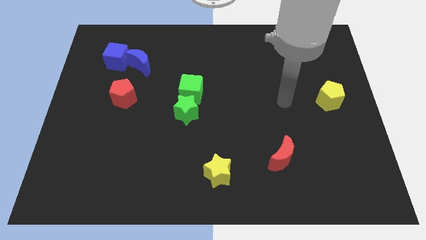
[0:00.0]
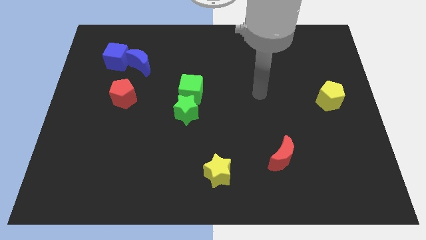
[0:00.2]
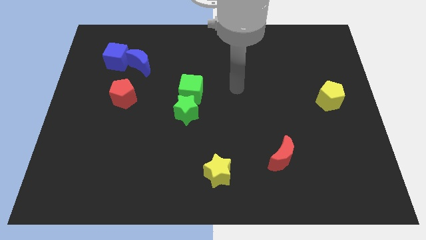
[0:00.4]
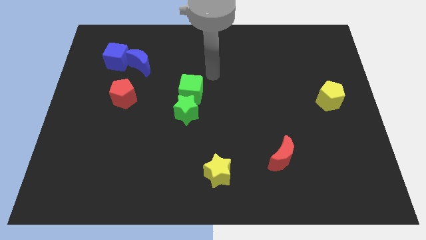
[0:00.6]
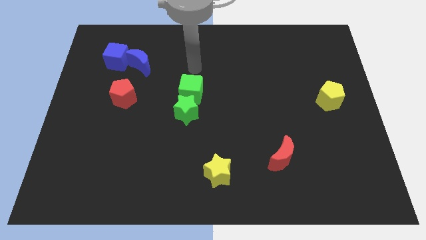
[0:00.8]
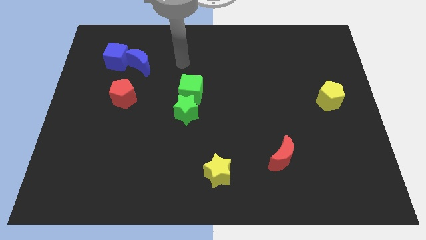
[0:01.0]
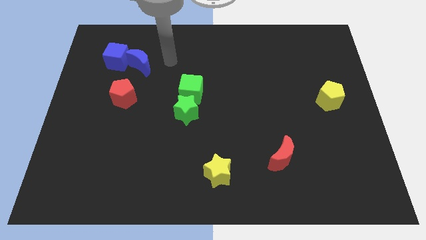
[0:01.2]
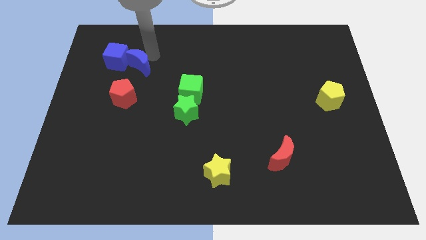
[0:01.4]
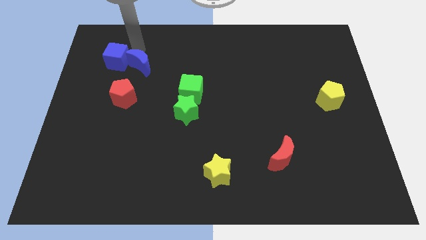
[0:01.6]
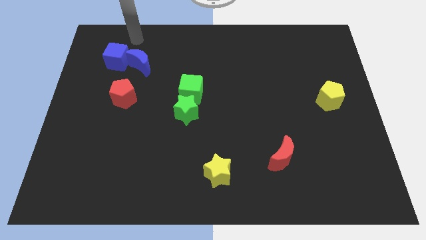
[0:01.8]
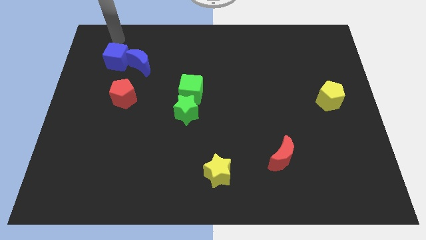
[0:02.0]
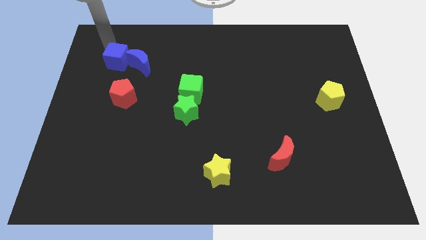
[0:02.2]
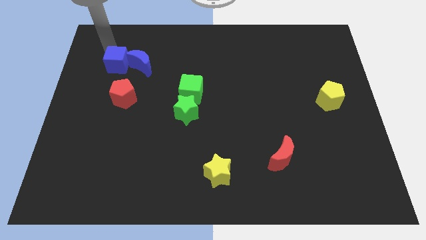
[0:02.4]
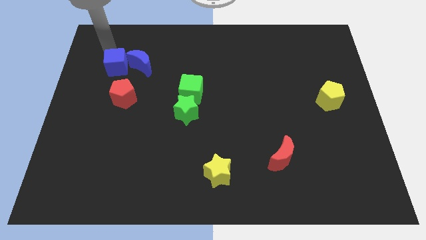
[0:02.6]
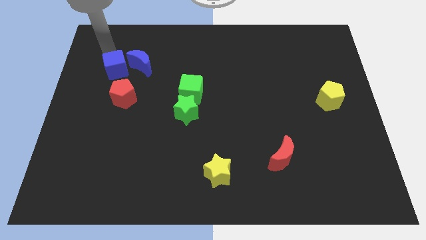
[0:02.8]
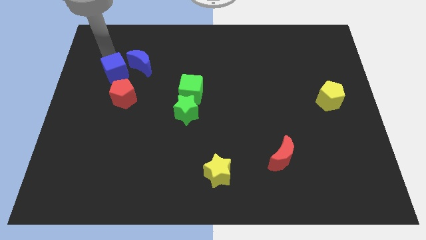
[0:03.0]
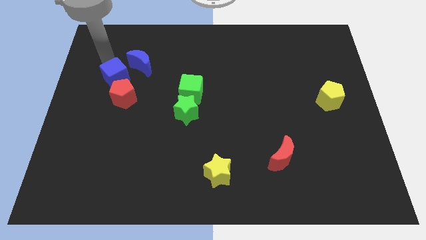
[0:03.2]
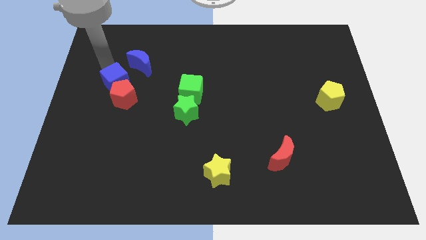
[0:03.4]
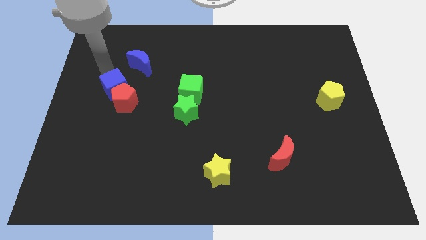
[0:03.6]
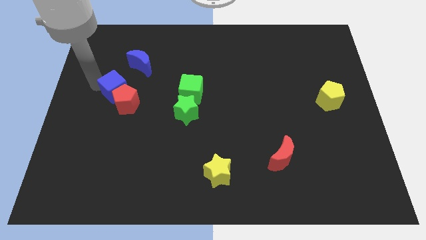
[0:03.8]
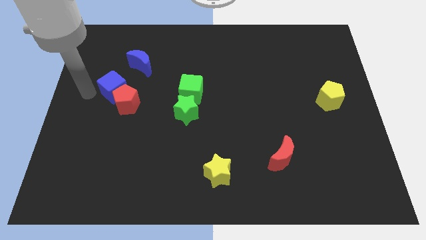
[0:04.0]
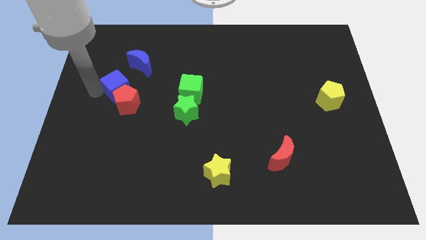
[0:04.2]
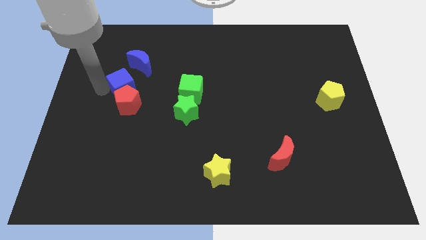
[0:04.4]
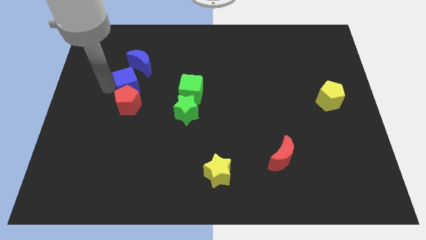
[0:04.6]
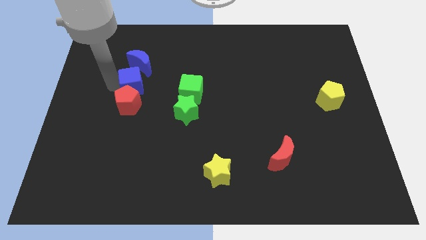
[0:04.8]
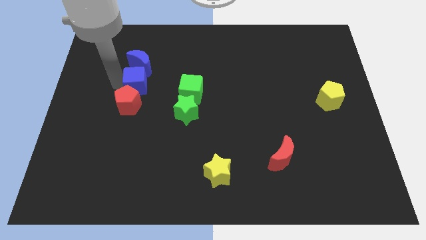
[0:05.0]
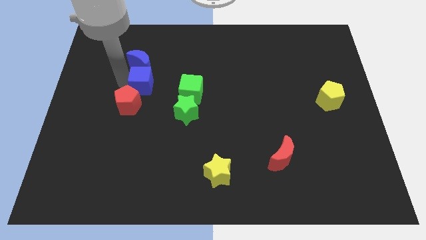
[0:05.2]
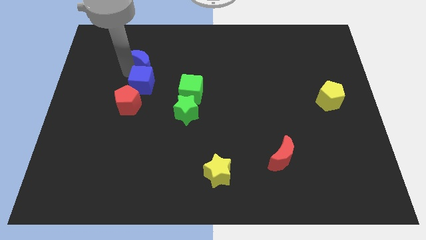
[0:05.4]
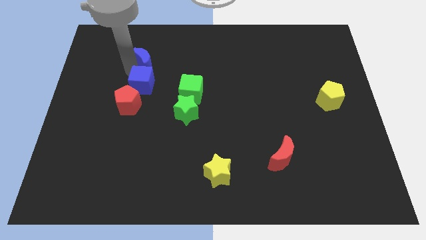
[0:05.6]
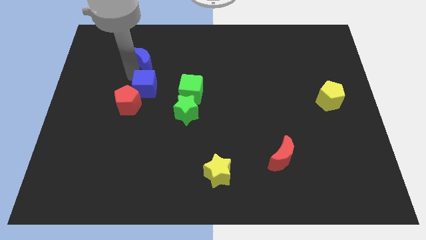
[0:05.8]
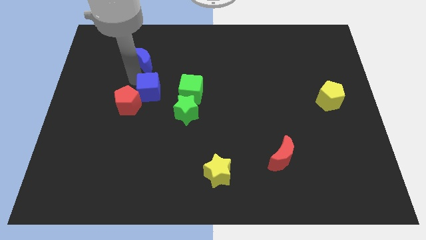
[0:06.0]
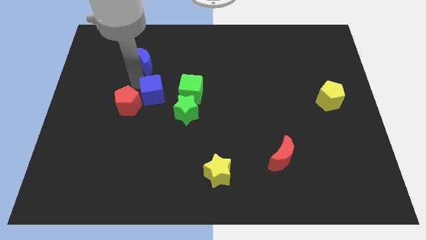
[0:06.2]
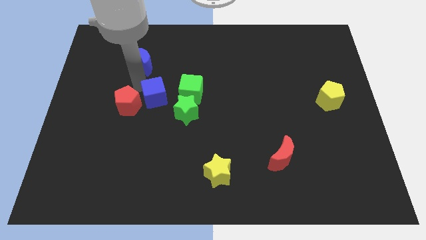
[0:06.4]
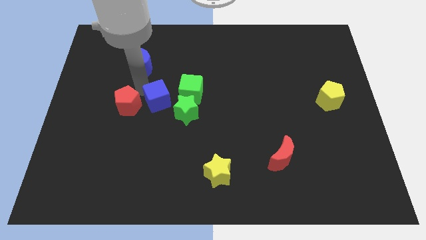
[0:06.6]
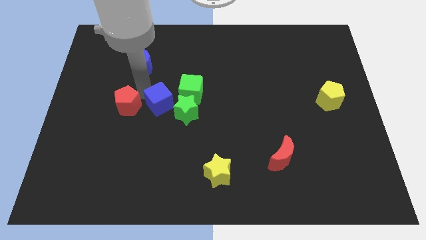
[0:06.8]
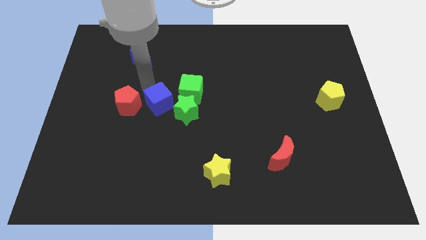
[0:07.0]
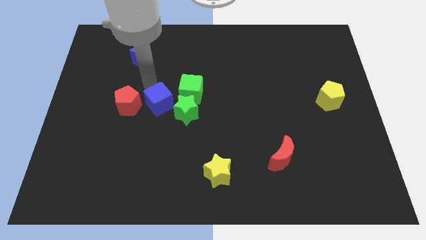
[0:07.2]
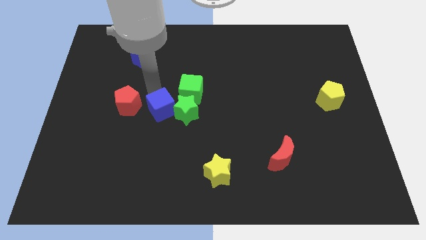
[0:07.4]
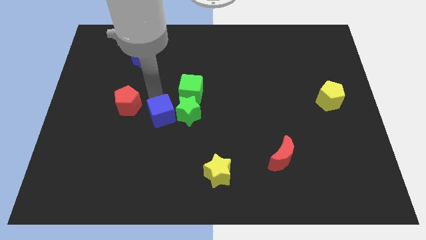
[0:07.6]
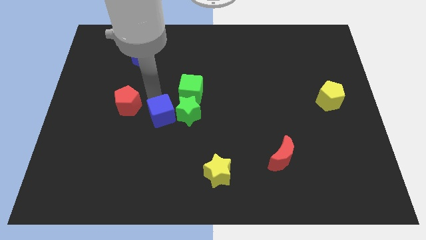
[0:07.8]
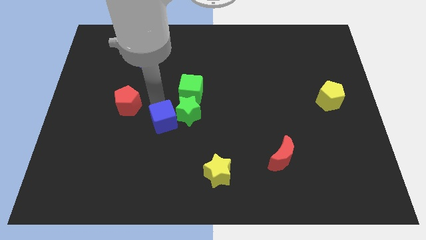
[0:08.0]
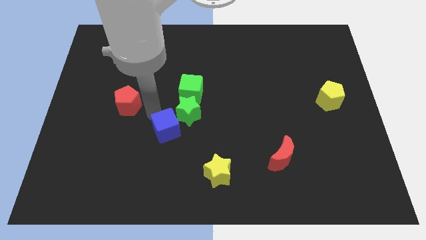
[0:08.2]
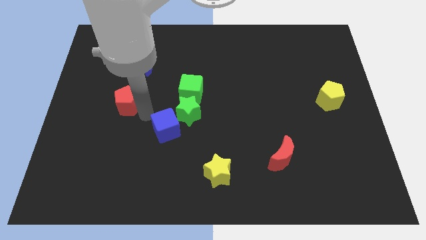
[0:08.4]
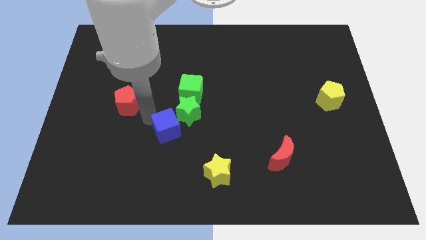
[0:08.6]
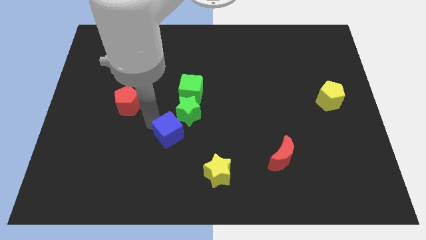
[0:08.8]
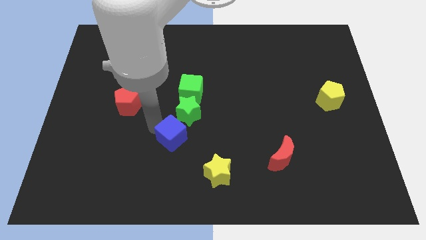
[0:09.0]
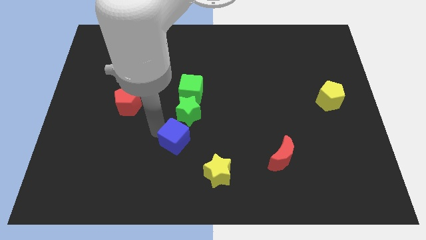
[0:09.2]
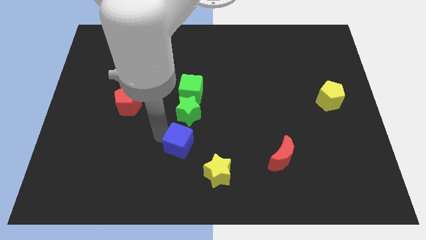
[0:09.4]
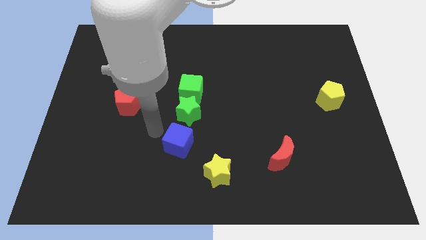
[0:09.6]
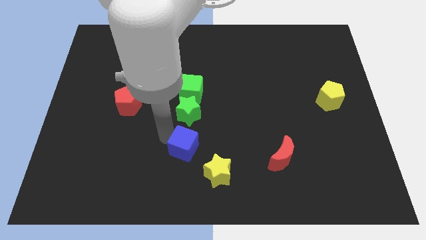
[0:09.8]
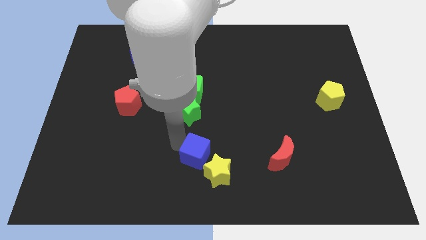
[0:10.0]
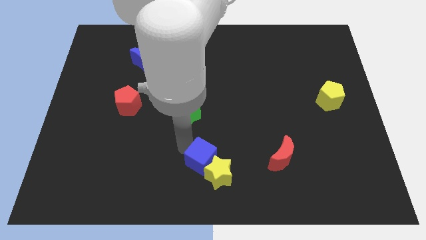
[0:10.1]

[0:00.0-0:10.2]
push the blue cube towards the yellow star

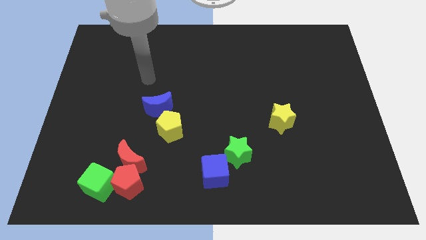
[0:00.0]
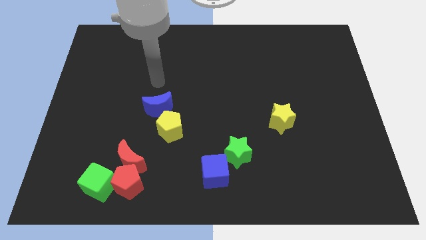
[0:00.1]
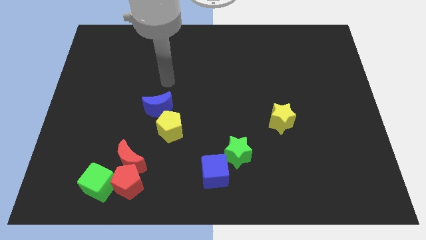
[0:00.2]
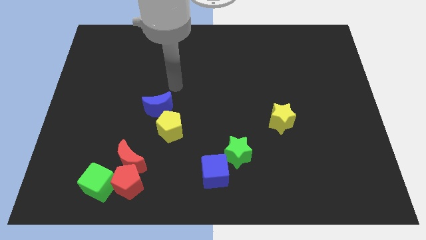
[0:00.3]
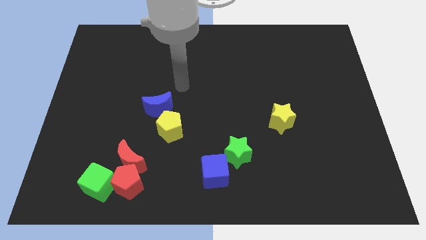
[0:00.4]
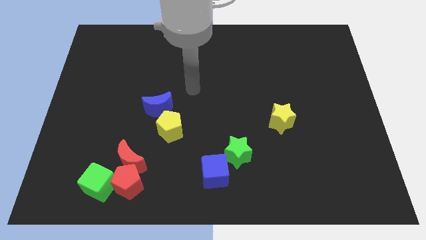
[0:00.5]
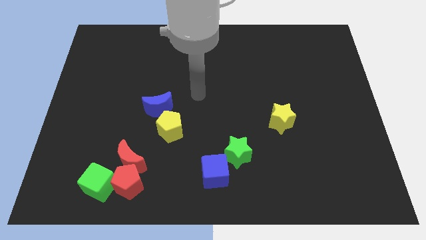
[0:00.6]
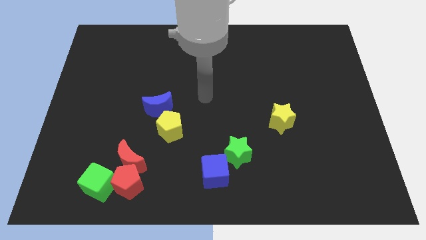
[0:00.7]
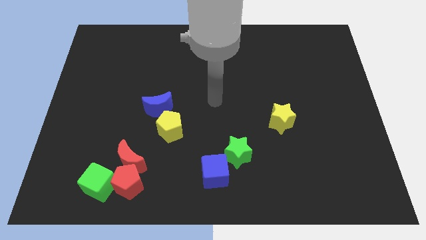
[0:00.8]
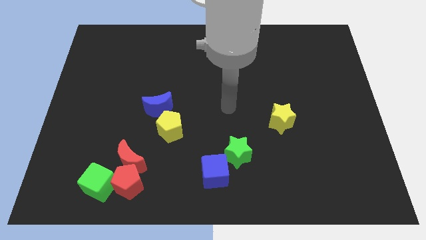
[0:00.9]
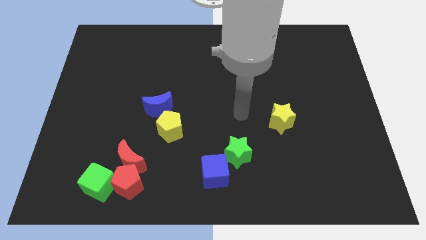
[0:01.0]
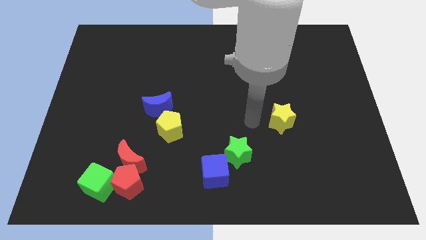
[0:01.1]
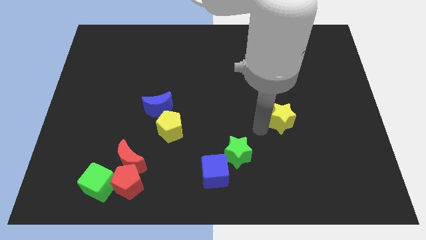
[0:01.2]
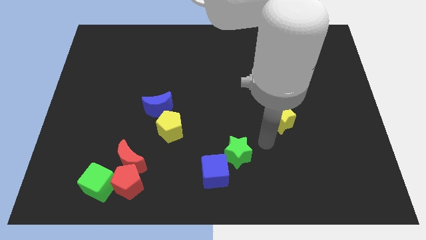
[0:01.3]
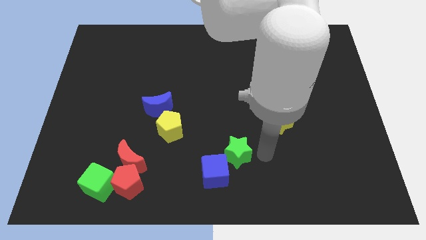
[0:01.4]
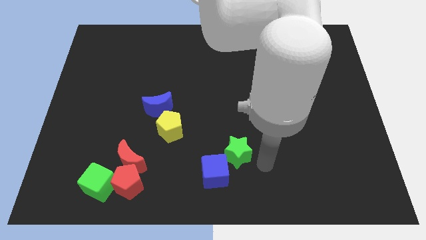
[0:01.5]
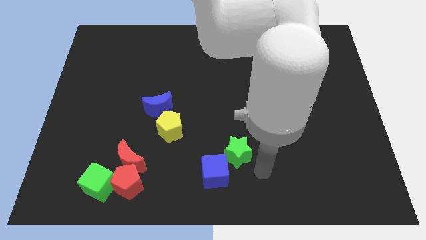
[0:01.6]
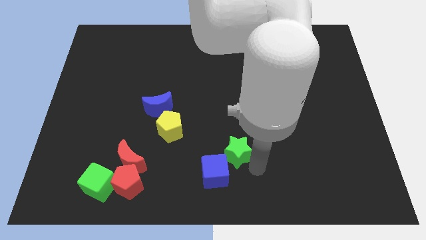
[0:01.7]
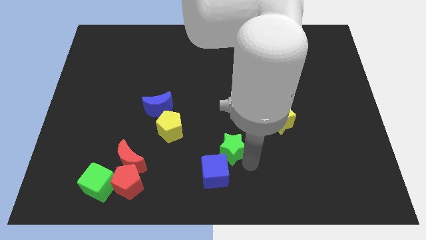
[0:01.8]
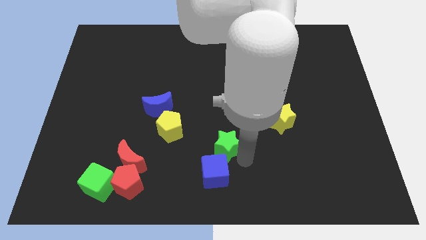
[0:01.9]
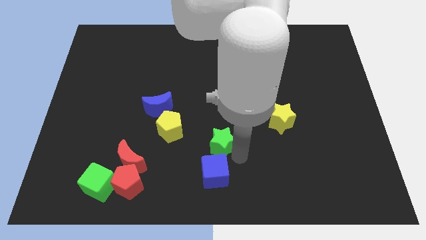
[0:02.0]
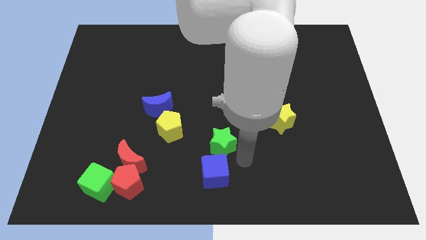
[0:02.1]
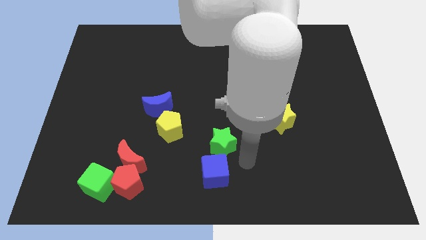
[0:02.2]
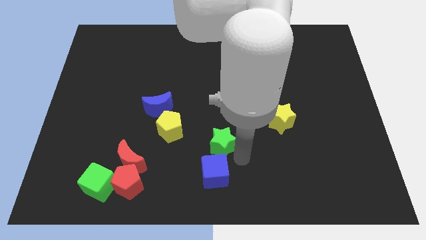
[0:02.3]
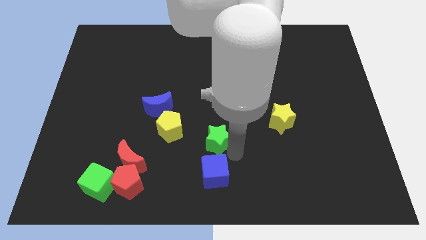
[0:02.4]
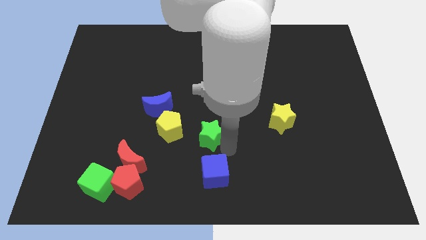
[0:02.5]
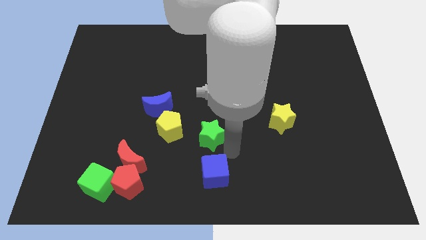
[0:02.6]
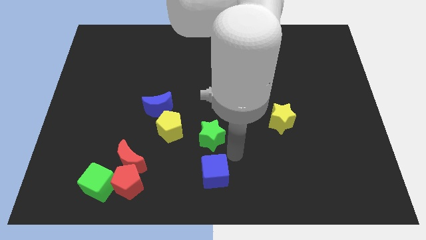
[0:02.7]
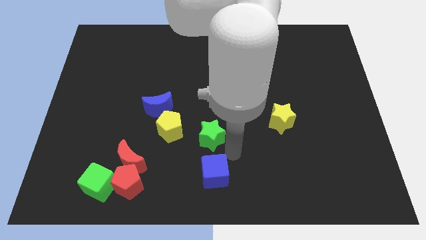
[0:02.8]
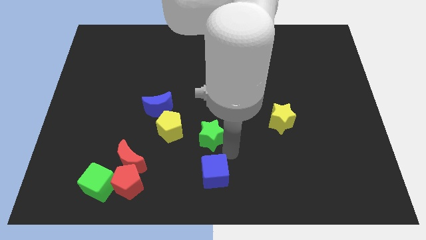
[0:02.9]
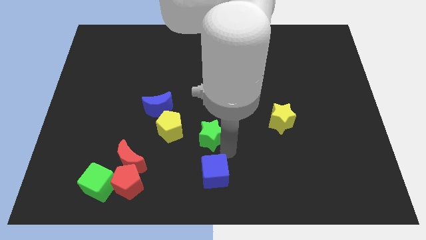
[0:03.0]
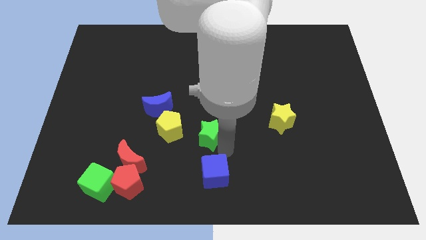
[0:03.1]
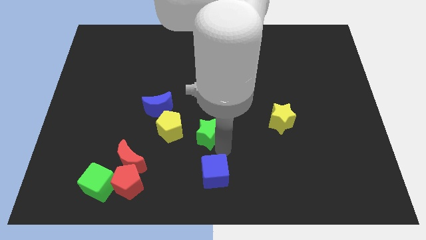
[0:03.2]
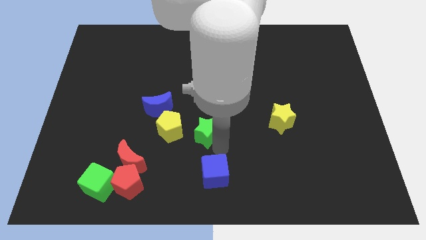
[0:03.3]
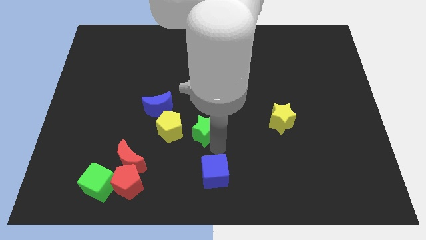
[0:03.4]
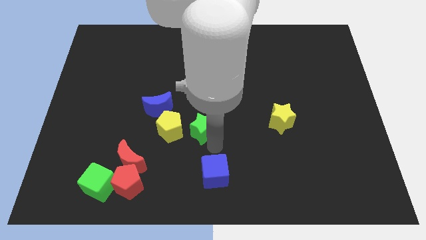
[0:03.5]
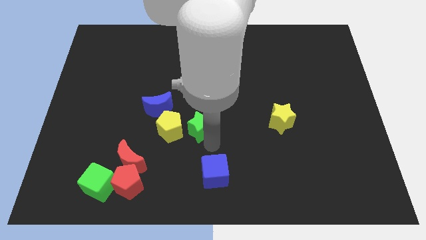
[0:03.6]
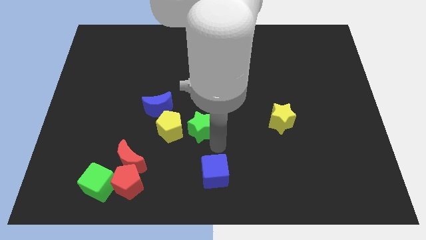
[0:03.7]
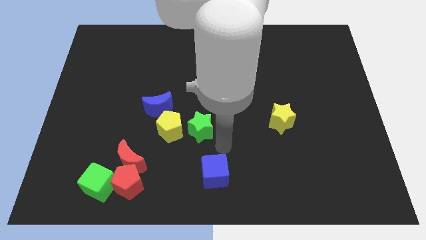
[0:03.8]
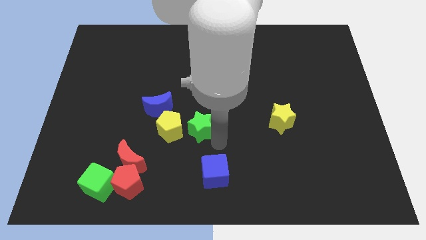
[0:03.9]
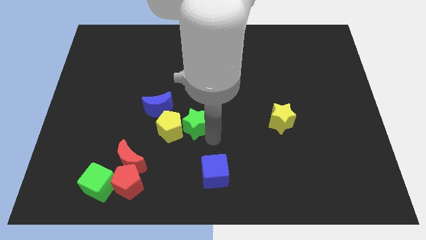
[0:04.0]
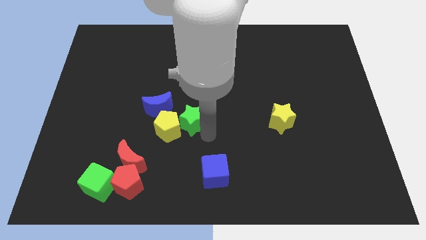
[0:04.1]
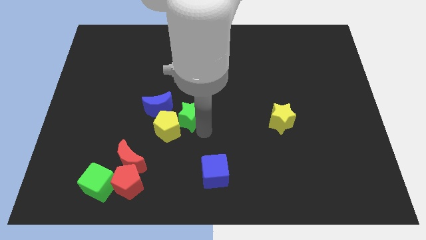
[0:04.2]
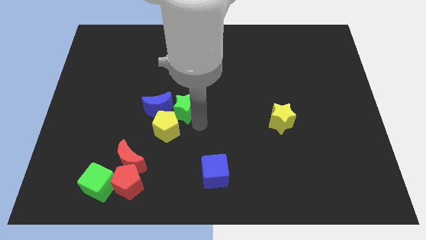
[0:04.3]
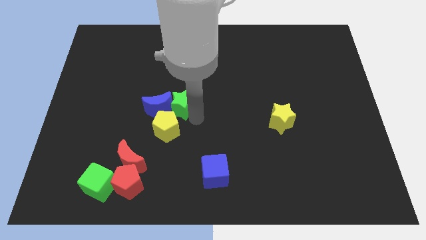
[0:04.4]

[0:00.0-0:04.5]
move the green star to the blue moon
